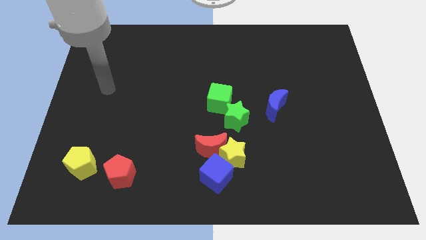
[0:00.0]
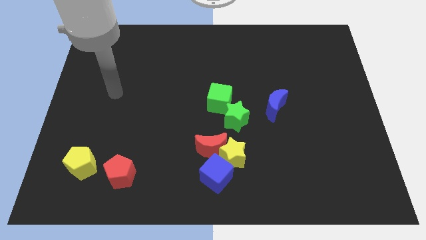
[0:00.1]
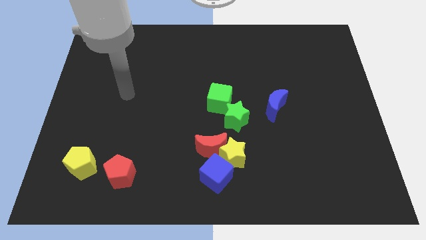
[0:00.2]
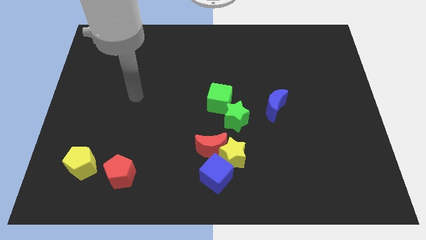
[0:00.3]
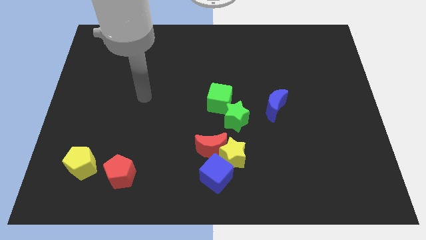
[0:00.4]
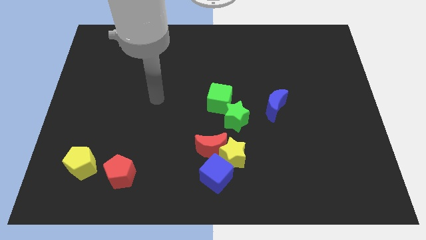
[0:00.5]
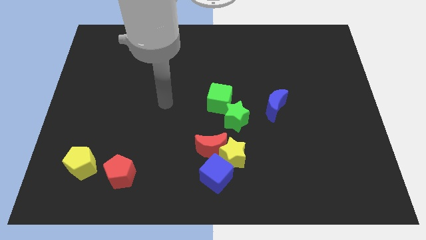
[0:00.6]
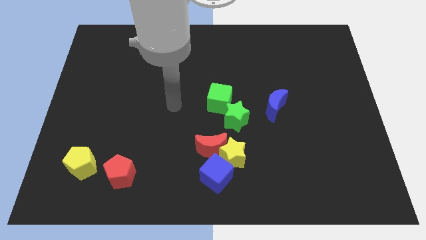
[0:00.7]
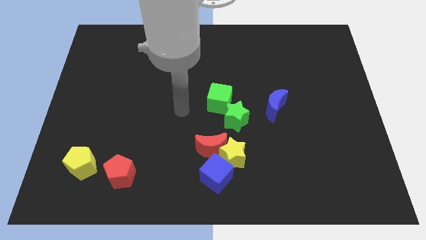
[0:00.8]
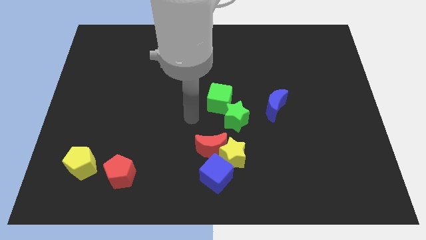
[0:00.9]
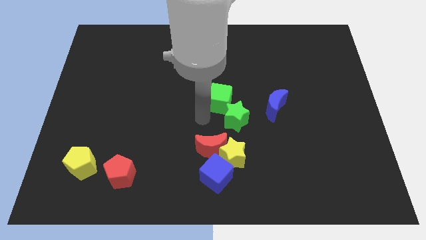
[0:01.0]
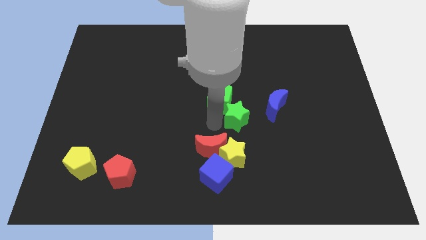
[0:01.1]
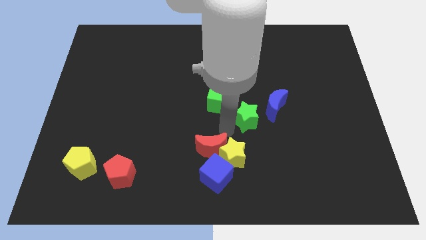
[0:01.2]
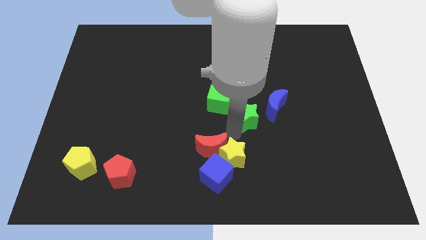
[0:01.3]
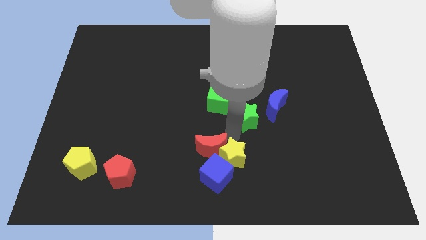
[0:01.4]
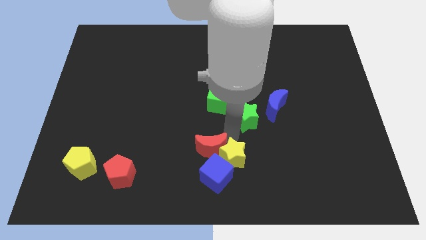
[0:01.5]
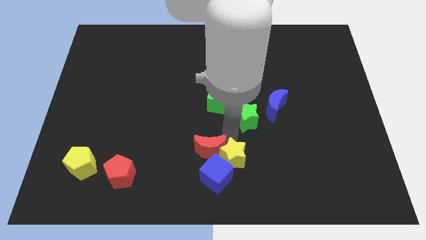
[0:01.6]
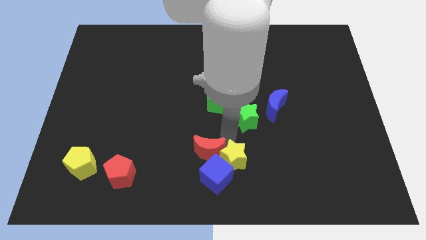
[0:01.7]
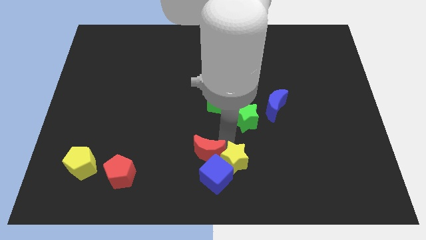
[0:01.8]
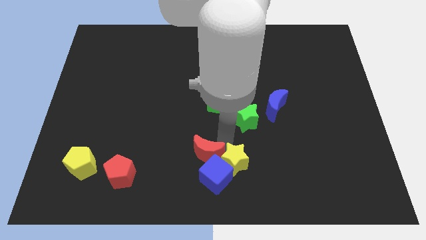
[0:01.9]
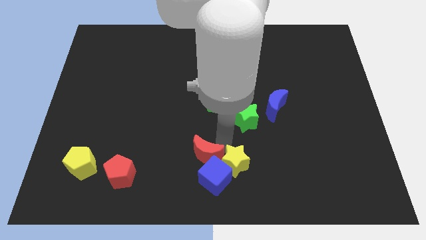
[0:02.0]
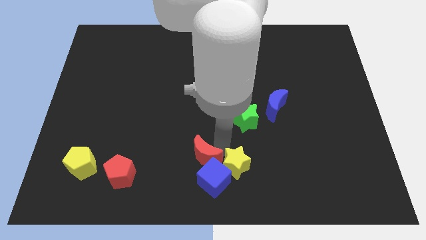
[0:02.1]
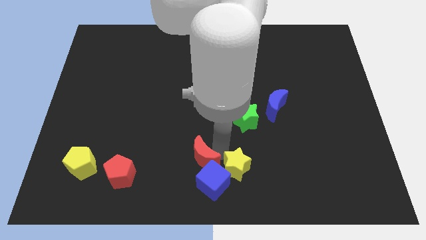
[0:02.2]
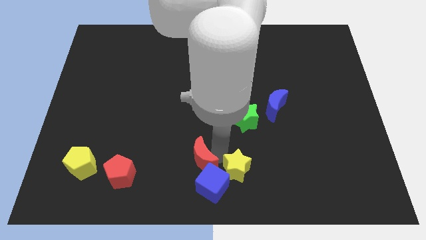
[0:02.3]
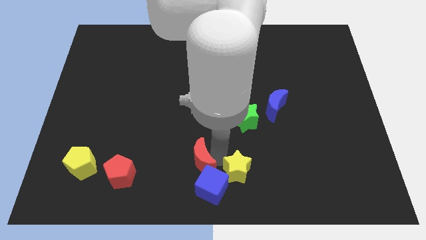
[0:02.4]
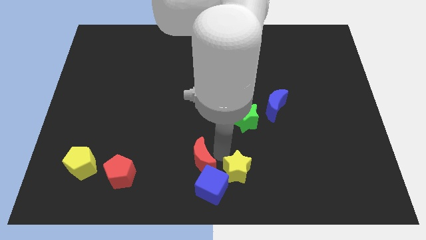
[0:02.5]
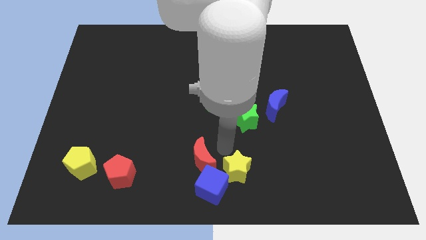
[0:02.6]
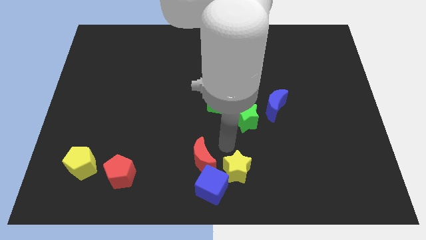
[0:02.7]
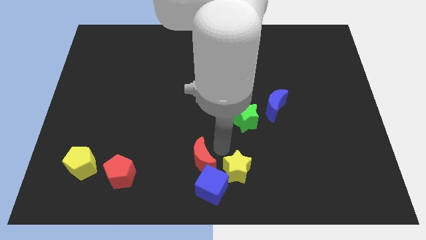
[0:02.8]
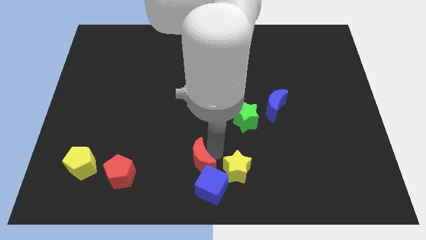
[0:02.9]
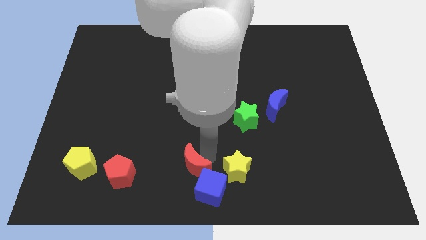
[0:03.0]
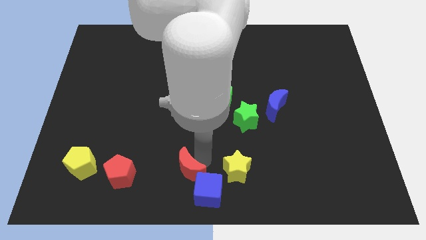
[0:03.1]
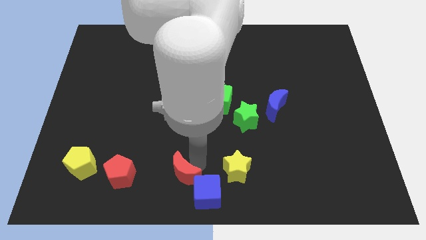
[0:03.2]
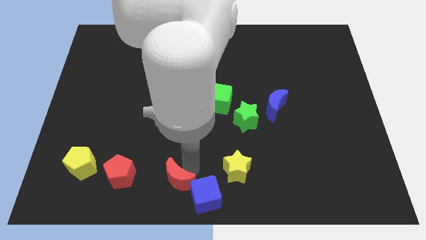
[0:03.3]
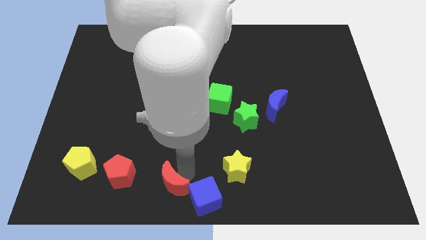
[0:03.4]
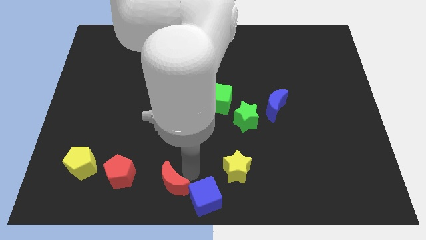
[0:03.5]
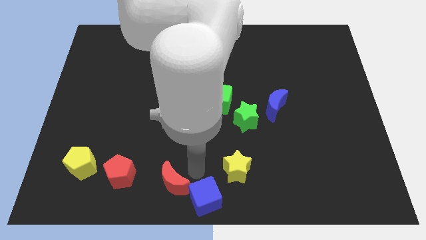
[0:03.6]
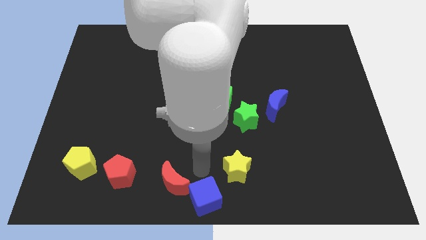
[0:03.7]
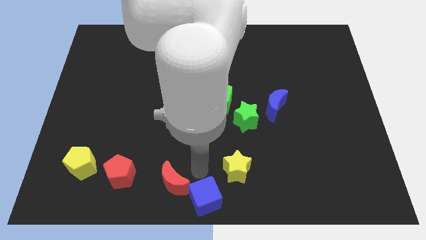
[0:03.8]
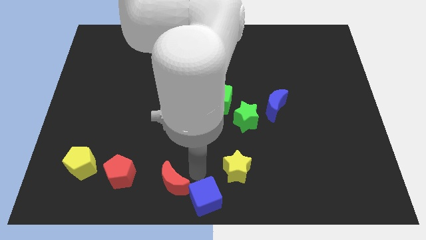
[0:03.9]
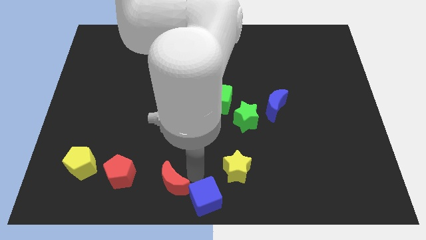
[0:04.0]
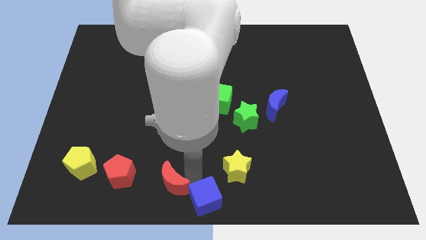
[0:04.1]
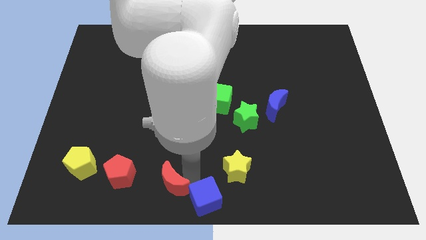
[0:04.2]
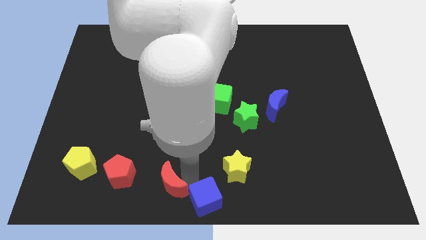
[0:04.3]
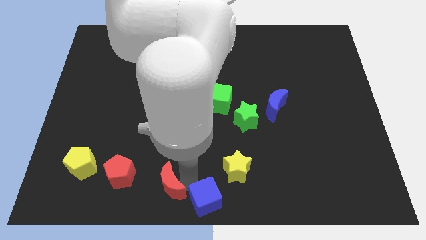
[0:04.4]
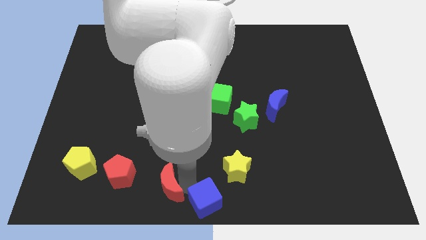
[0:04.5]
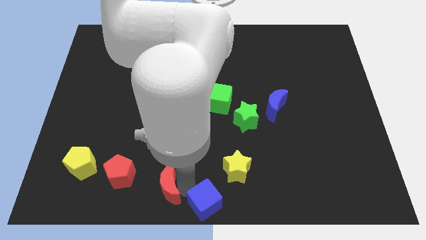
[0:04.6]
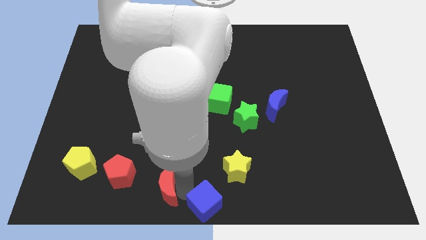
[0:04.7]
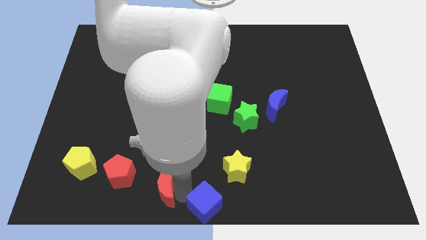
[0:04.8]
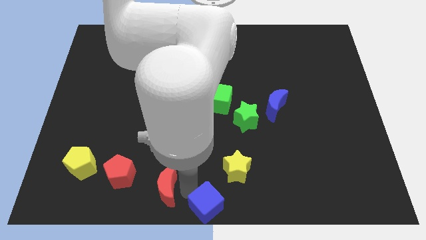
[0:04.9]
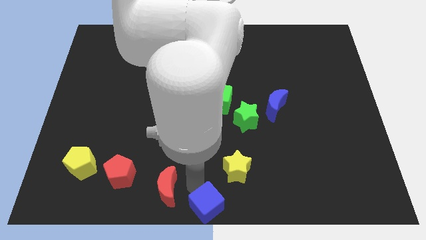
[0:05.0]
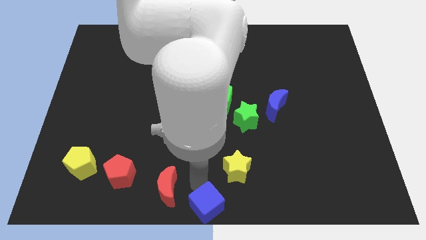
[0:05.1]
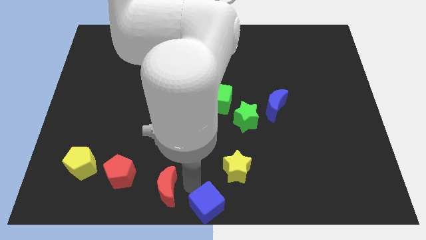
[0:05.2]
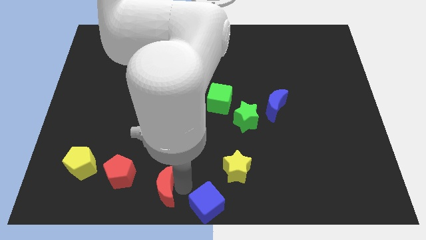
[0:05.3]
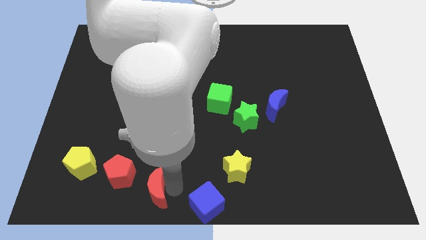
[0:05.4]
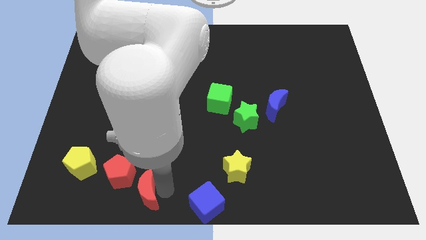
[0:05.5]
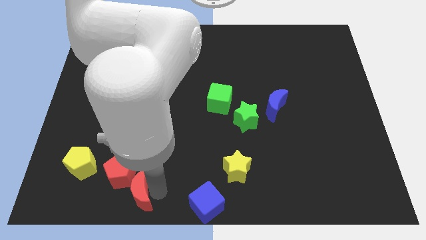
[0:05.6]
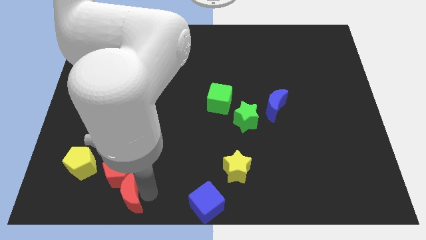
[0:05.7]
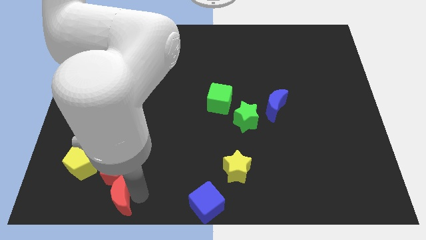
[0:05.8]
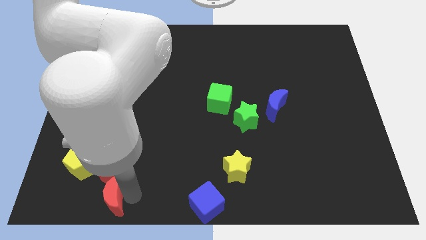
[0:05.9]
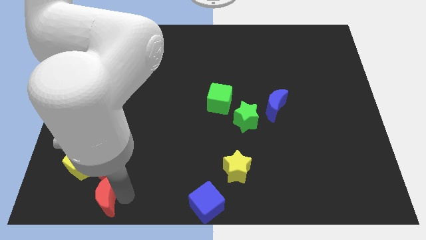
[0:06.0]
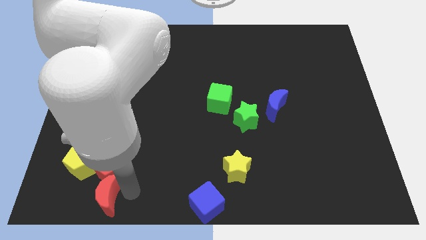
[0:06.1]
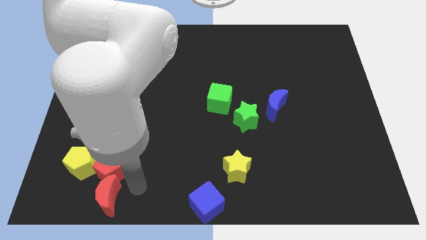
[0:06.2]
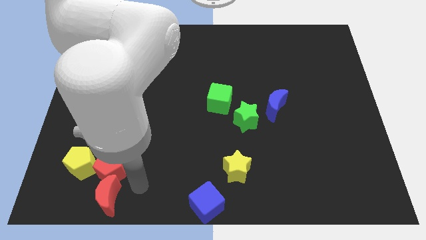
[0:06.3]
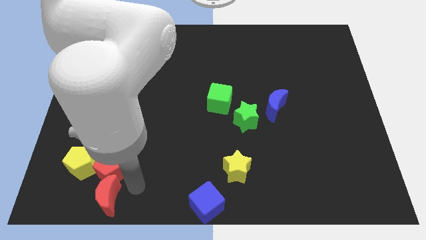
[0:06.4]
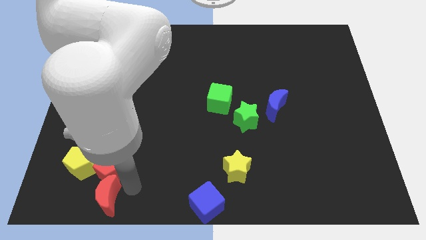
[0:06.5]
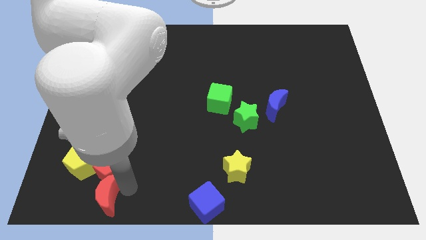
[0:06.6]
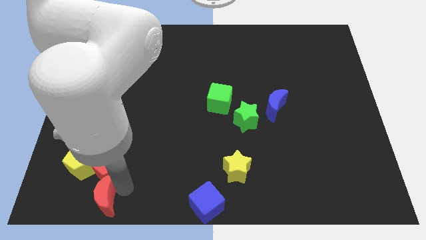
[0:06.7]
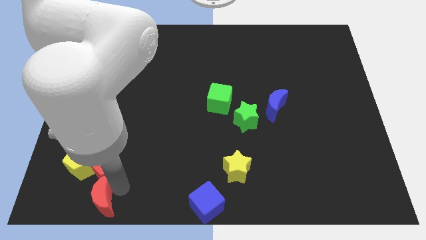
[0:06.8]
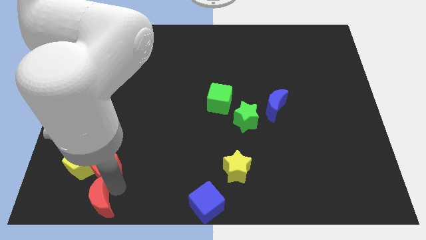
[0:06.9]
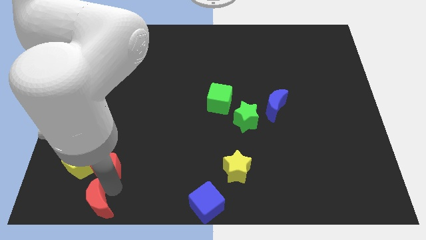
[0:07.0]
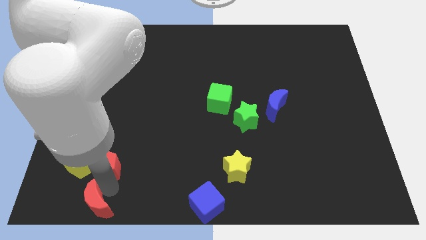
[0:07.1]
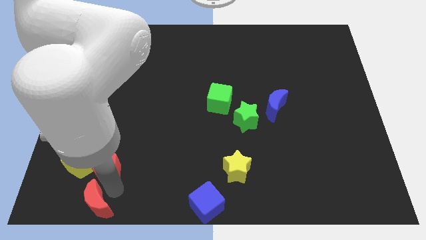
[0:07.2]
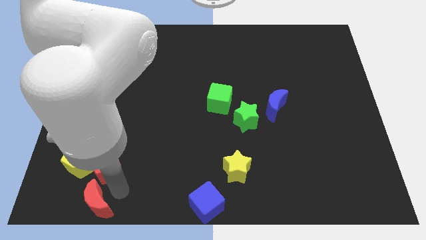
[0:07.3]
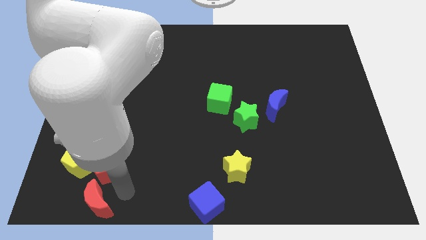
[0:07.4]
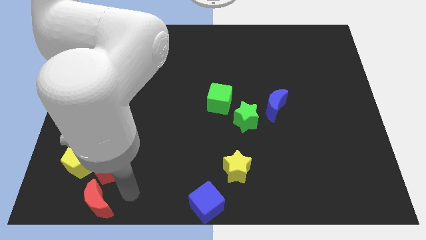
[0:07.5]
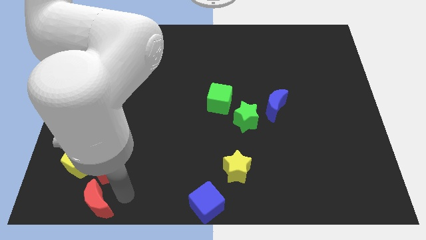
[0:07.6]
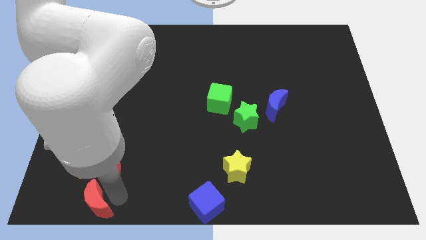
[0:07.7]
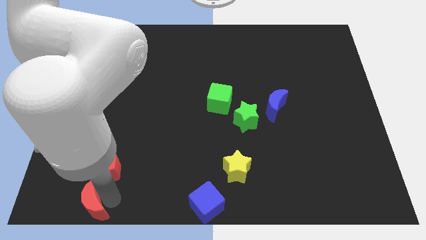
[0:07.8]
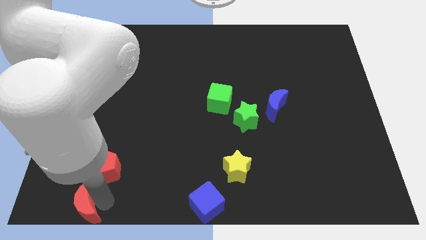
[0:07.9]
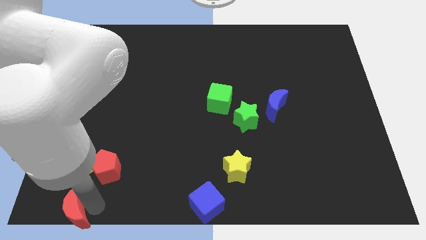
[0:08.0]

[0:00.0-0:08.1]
push the red moon to the lower left corner
